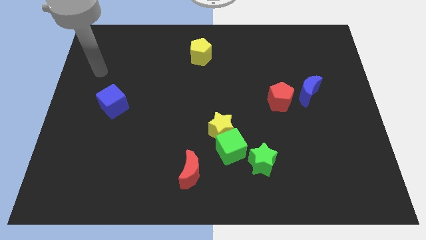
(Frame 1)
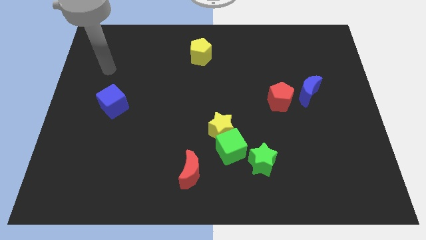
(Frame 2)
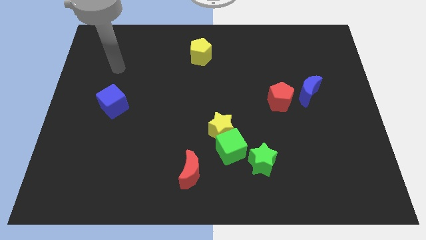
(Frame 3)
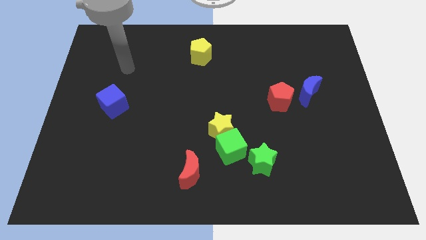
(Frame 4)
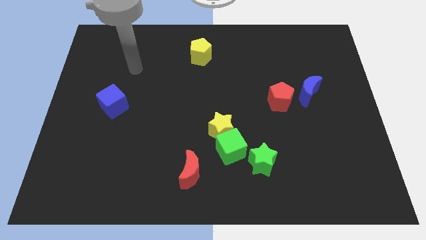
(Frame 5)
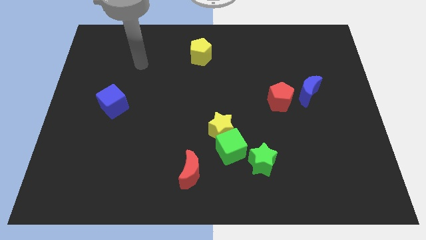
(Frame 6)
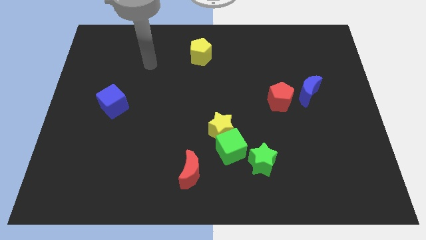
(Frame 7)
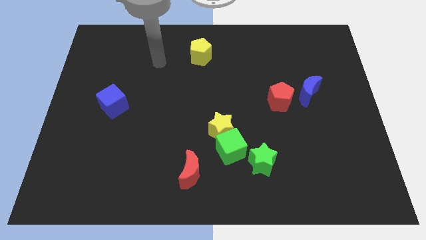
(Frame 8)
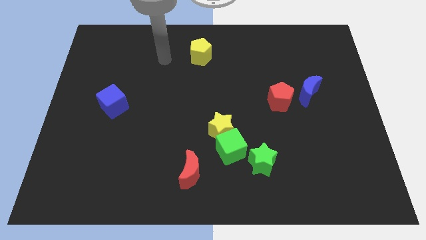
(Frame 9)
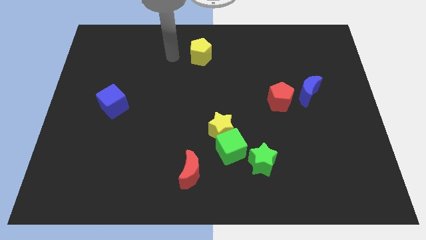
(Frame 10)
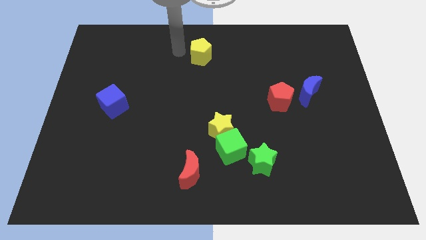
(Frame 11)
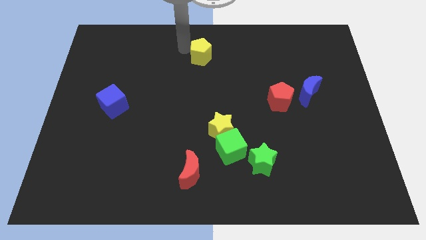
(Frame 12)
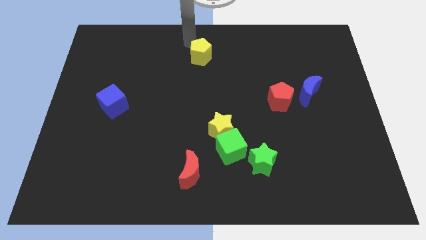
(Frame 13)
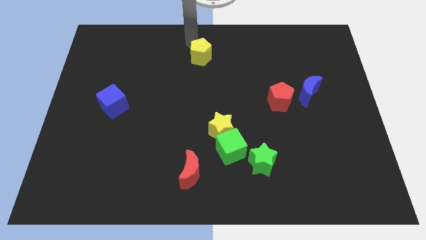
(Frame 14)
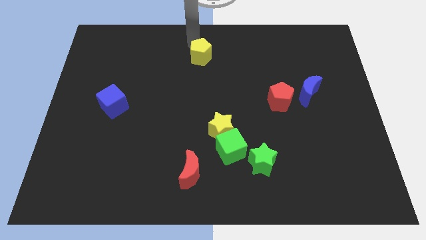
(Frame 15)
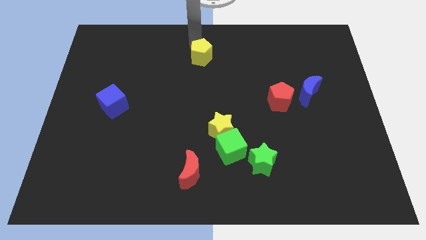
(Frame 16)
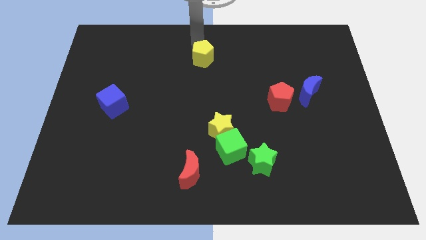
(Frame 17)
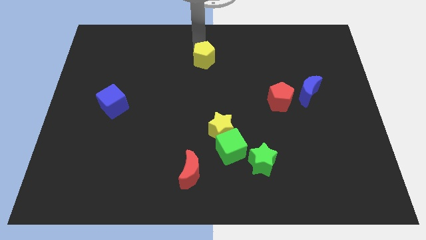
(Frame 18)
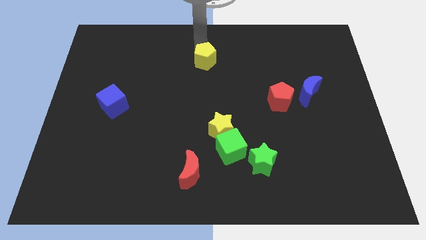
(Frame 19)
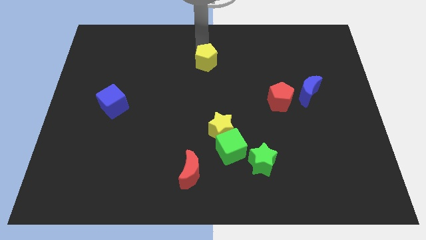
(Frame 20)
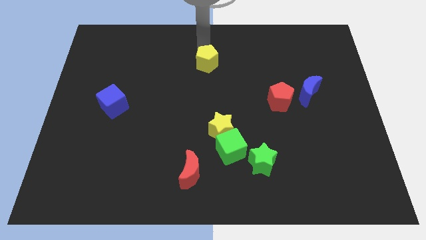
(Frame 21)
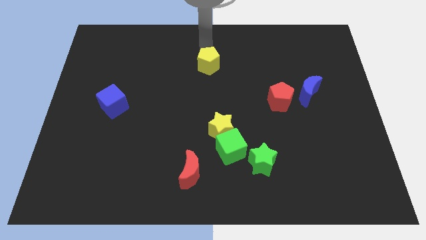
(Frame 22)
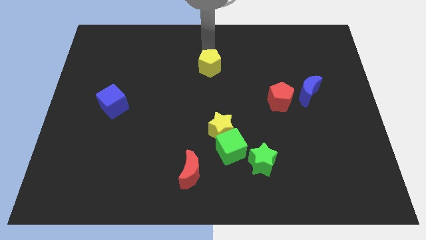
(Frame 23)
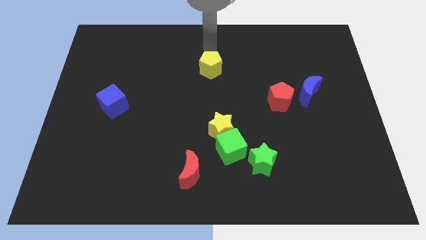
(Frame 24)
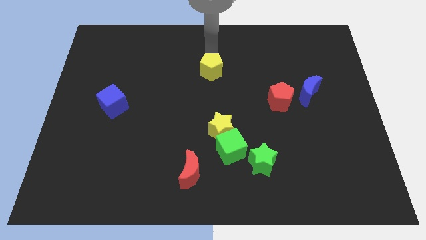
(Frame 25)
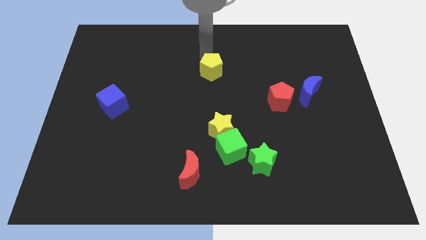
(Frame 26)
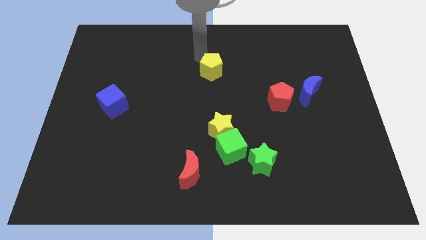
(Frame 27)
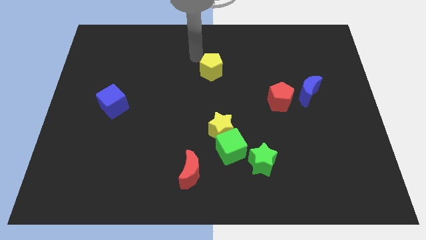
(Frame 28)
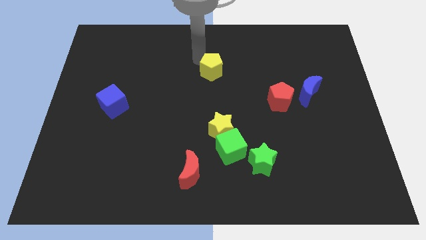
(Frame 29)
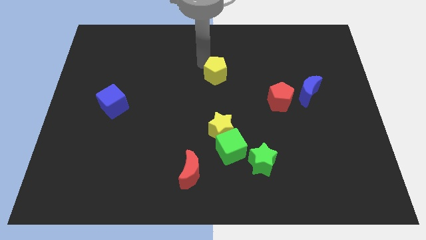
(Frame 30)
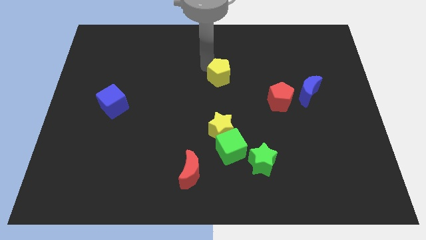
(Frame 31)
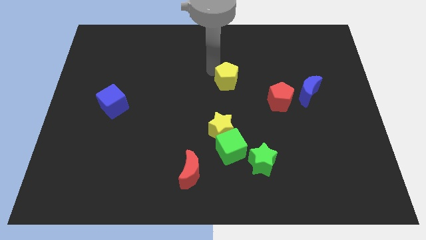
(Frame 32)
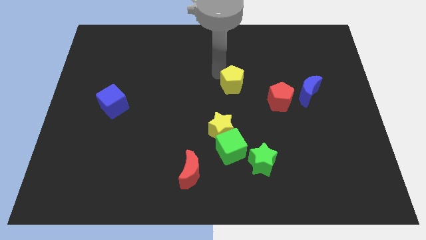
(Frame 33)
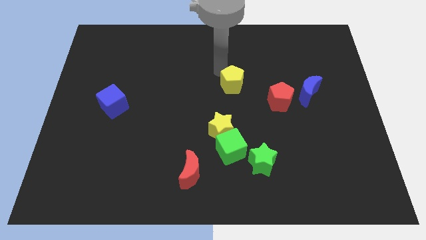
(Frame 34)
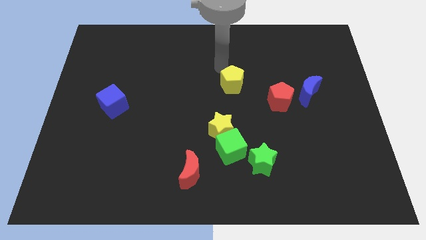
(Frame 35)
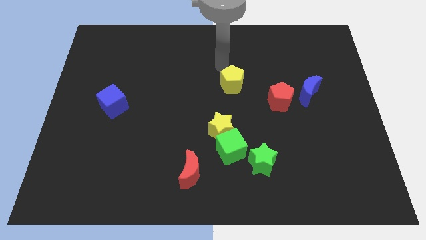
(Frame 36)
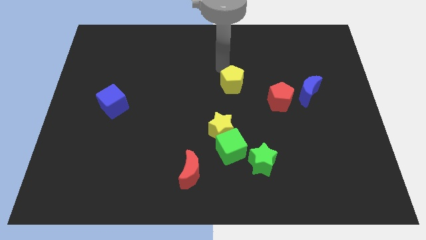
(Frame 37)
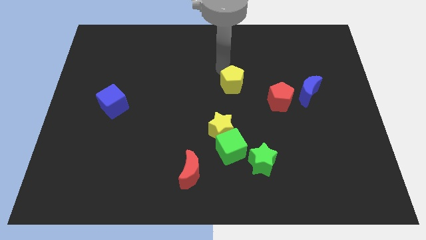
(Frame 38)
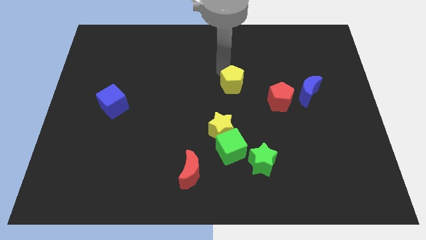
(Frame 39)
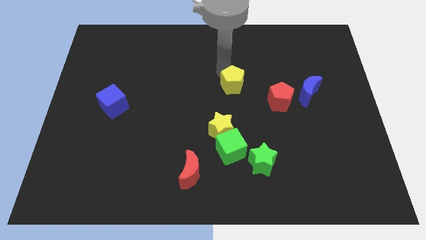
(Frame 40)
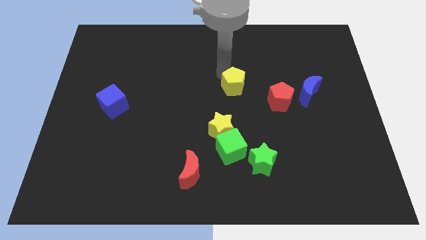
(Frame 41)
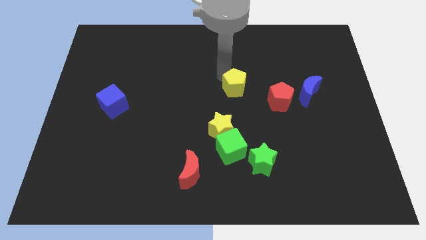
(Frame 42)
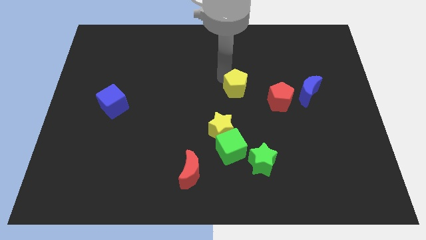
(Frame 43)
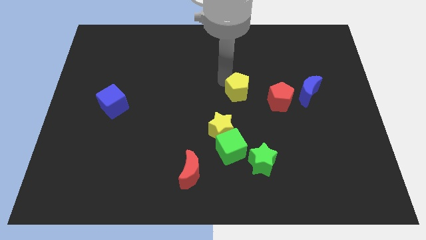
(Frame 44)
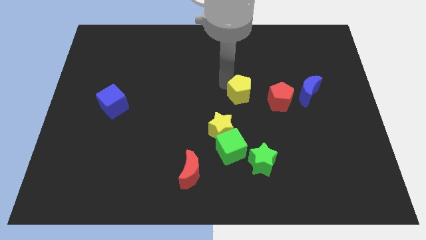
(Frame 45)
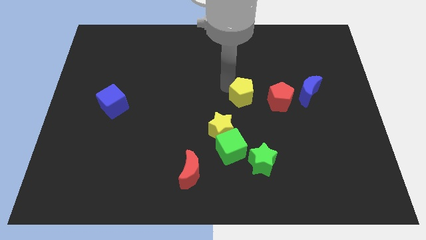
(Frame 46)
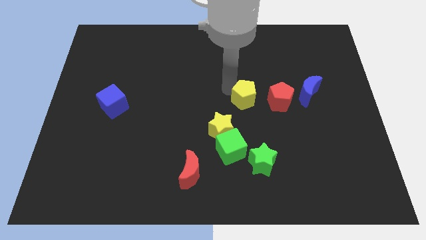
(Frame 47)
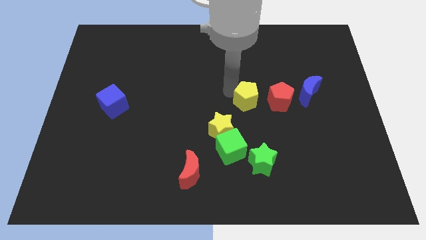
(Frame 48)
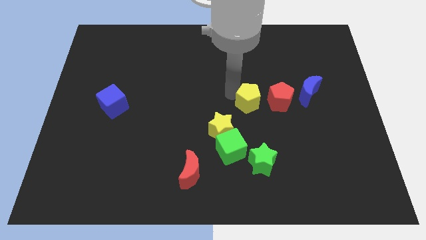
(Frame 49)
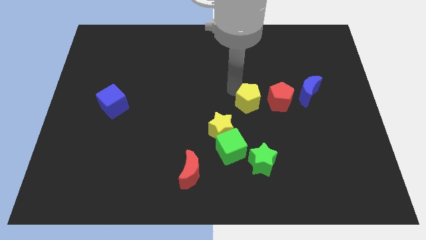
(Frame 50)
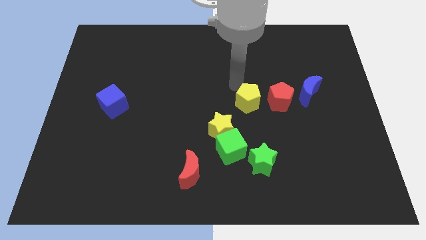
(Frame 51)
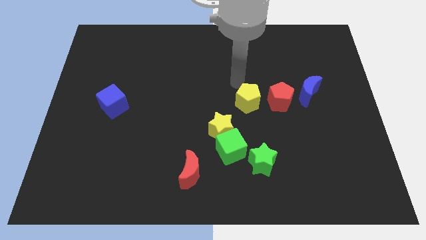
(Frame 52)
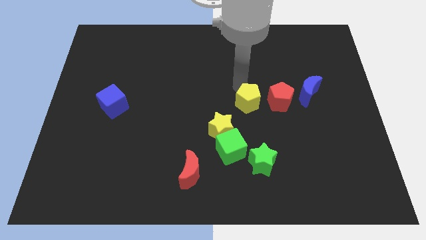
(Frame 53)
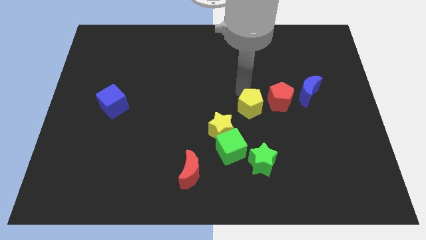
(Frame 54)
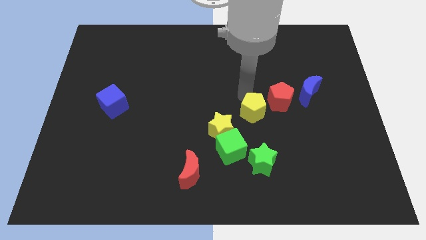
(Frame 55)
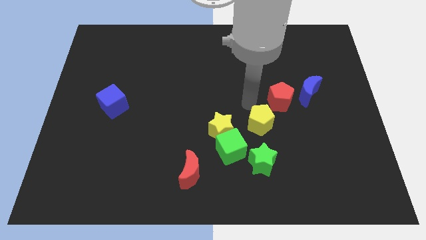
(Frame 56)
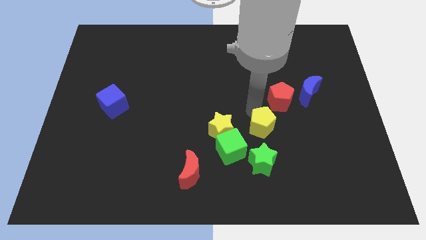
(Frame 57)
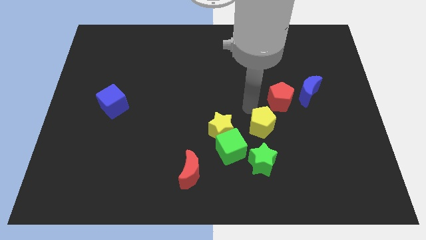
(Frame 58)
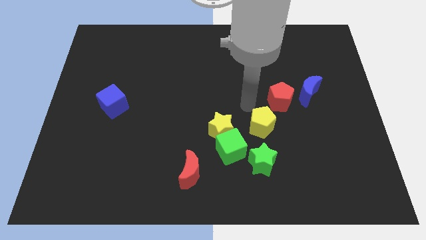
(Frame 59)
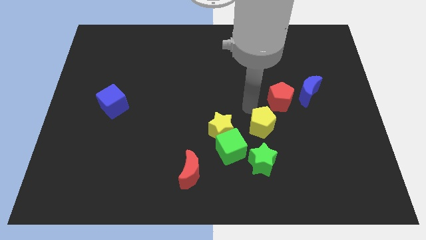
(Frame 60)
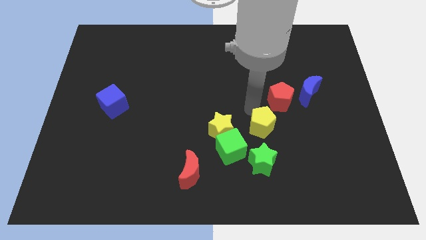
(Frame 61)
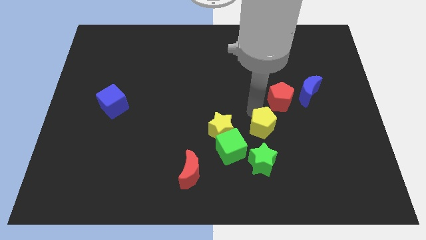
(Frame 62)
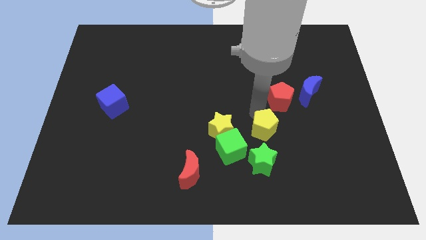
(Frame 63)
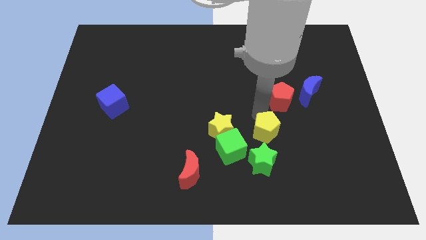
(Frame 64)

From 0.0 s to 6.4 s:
push the yellow pentagon to the right of the green cube

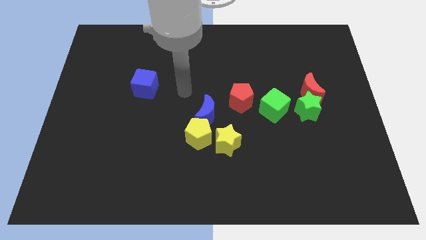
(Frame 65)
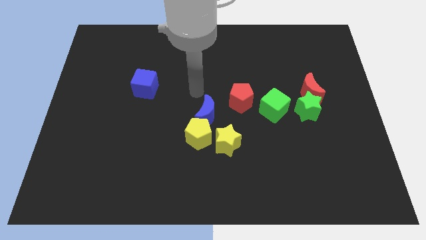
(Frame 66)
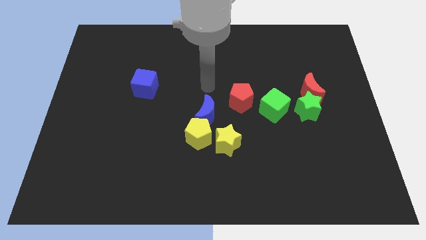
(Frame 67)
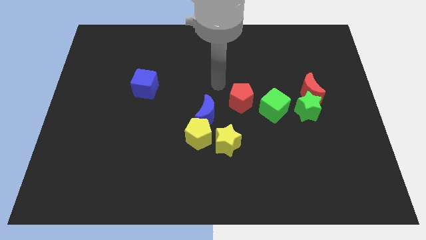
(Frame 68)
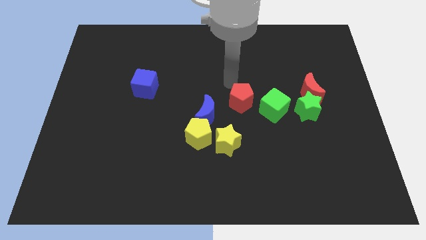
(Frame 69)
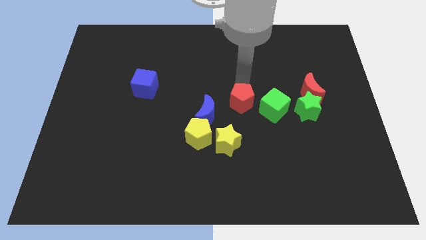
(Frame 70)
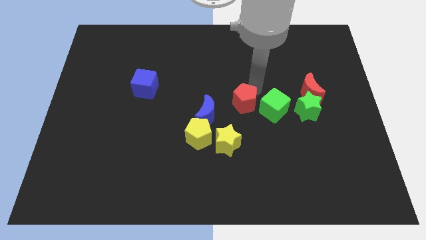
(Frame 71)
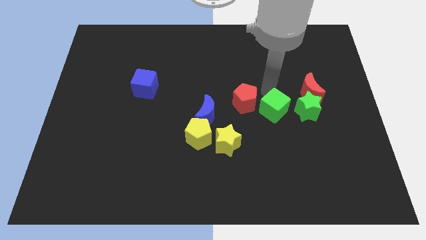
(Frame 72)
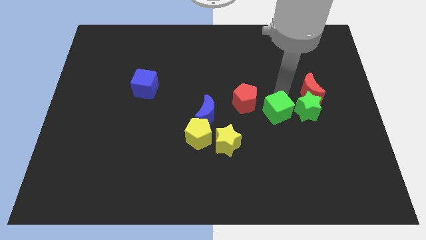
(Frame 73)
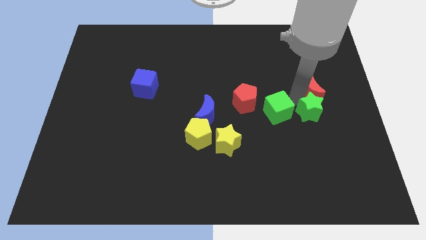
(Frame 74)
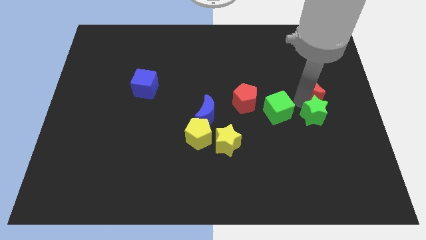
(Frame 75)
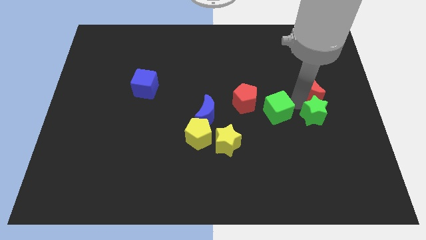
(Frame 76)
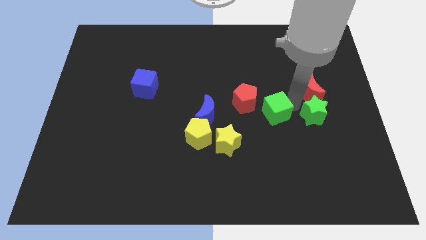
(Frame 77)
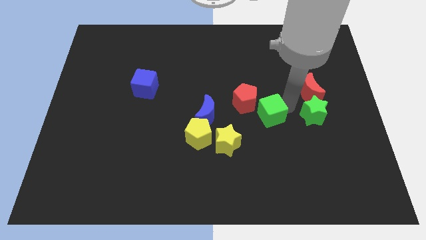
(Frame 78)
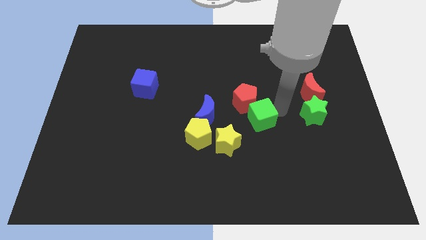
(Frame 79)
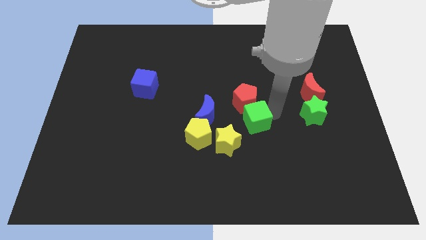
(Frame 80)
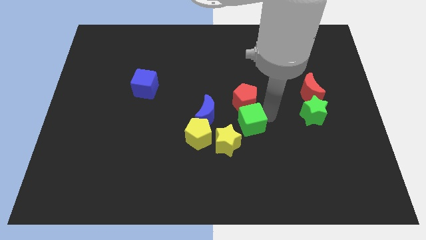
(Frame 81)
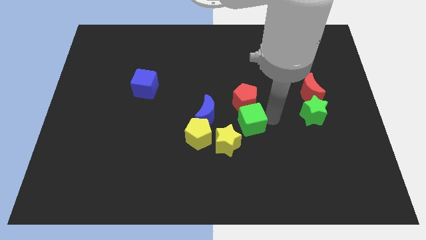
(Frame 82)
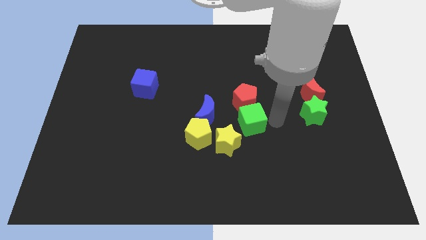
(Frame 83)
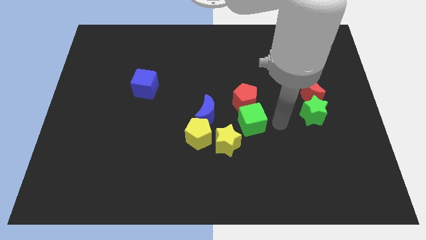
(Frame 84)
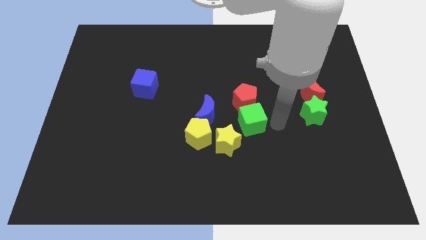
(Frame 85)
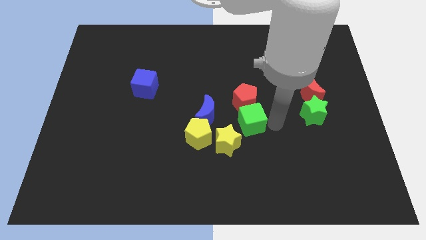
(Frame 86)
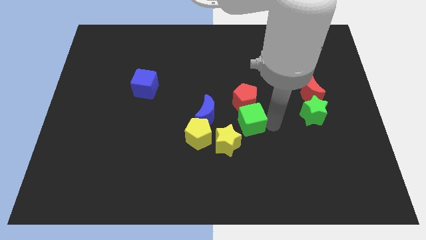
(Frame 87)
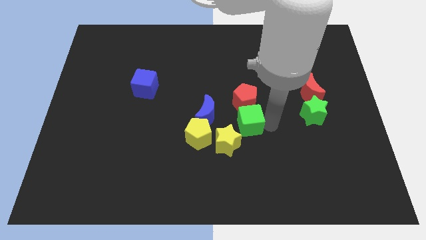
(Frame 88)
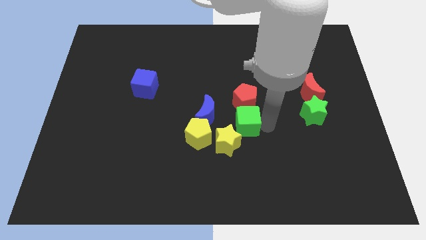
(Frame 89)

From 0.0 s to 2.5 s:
slide the green cube to the top side of the yellow star
